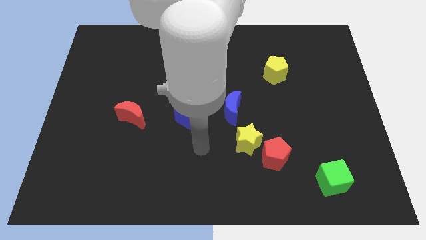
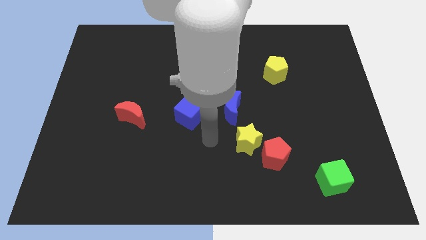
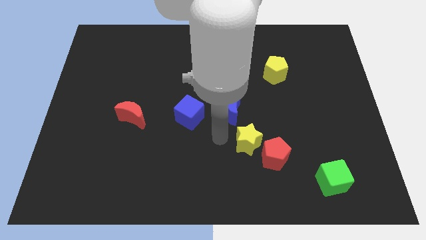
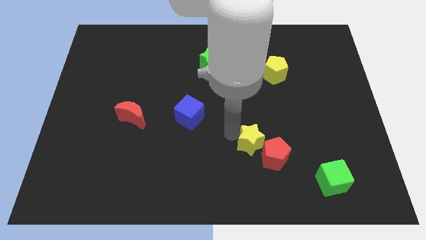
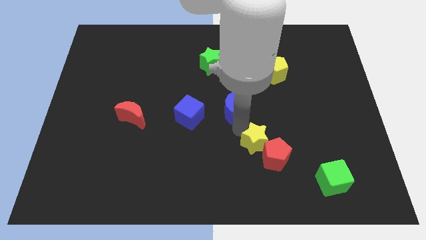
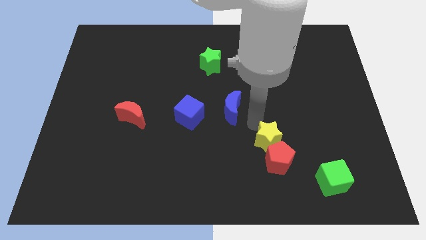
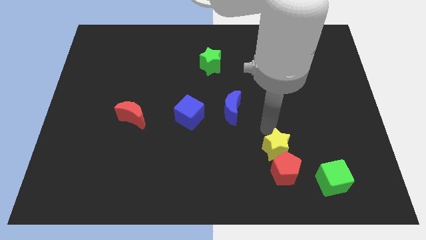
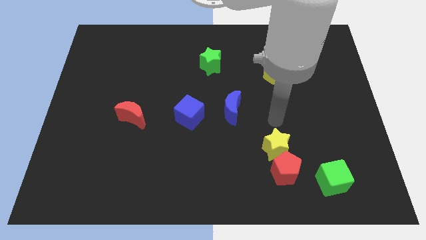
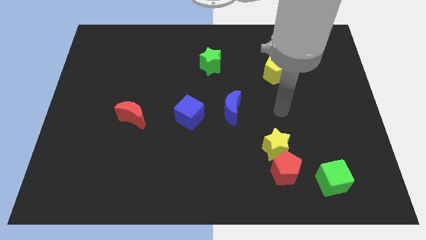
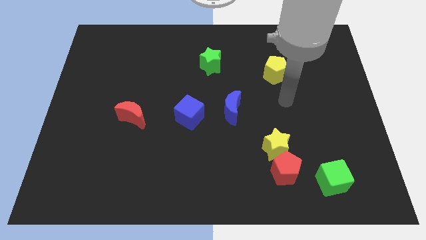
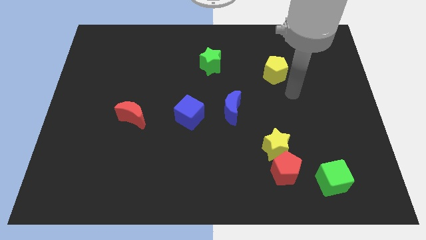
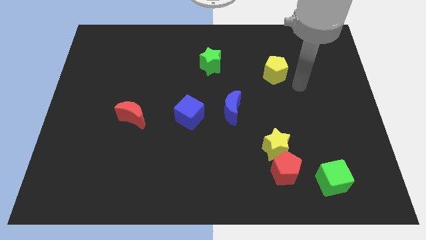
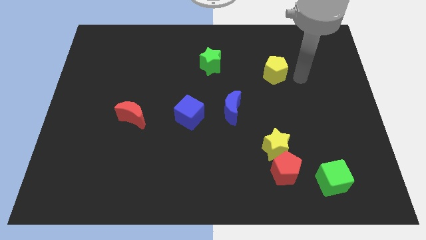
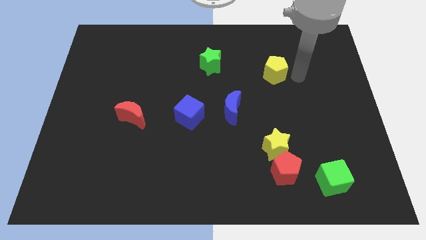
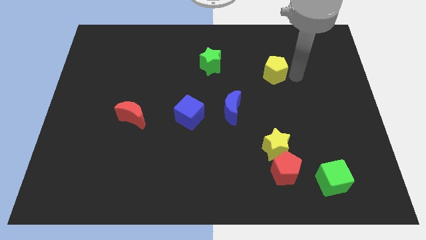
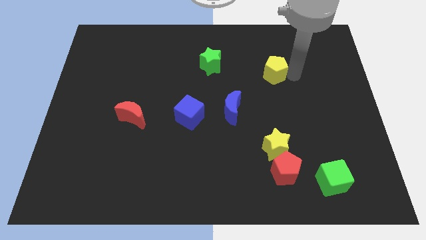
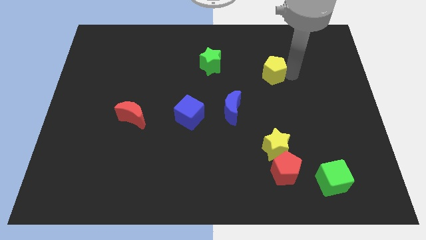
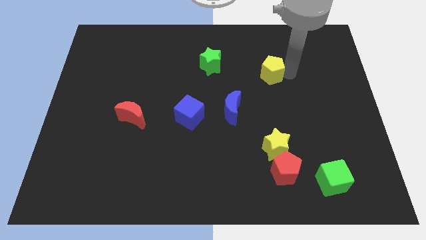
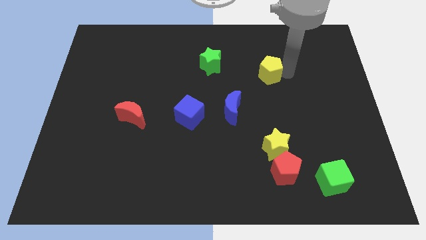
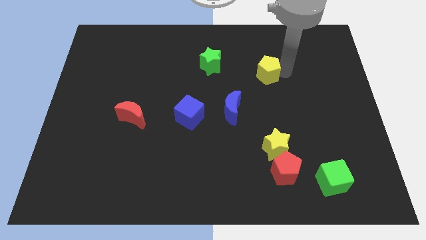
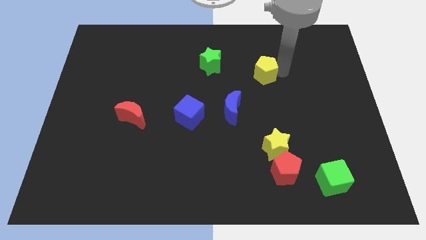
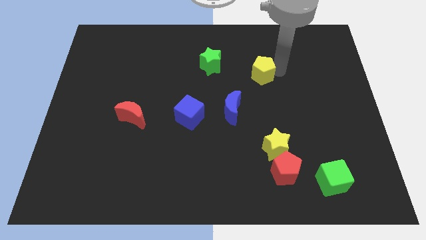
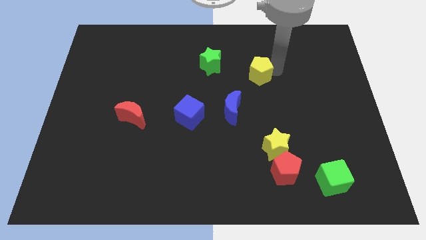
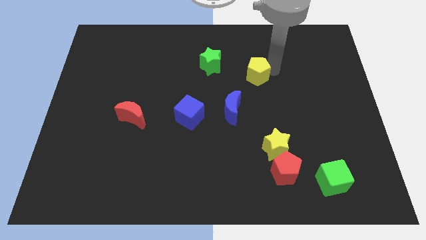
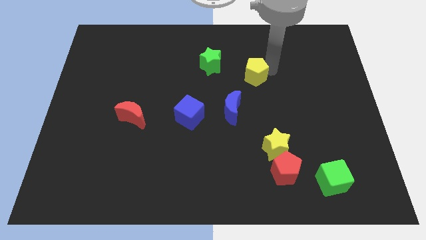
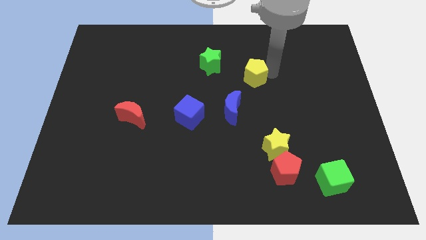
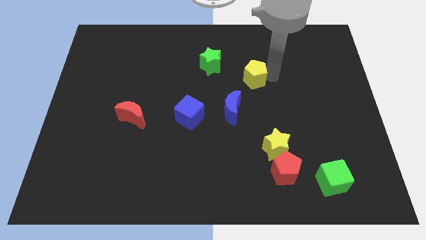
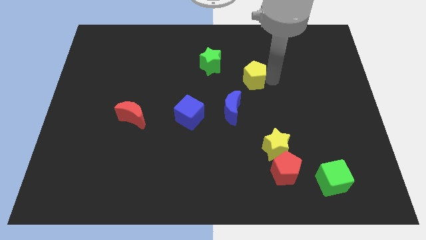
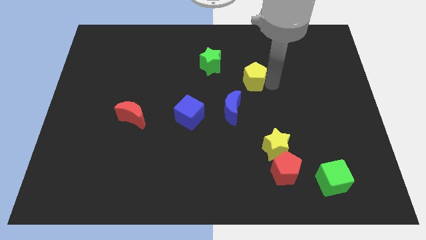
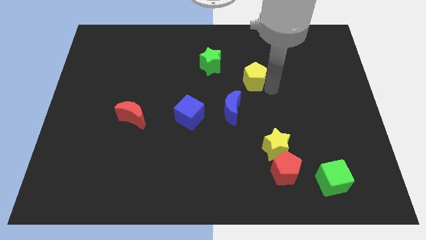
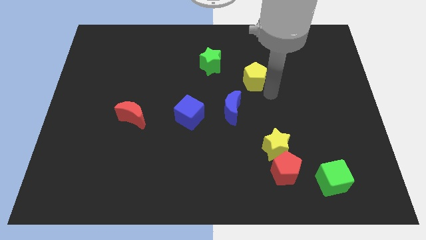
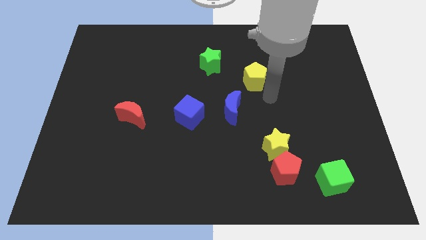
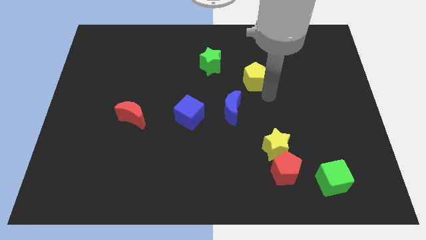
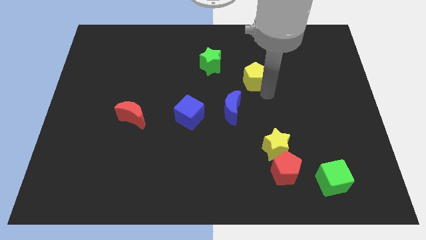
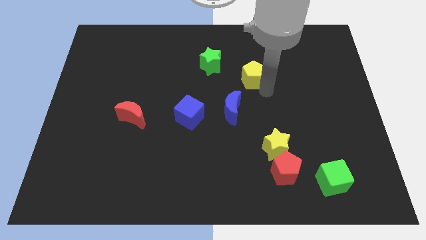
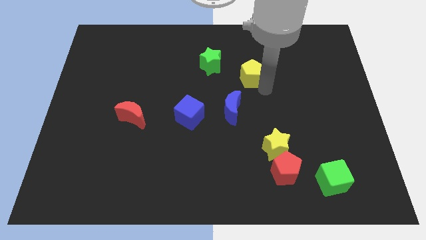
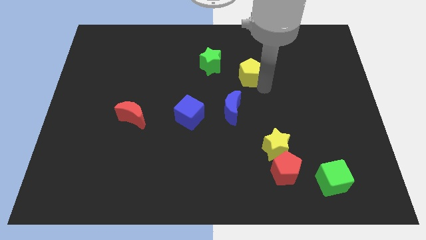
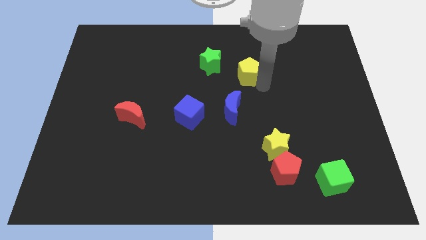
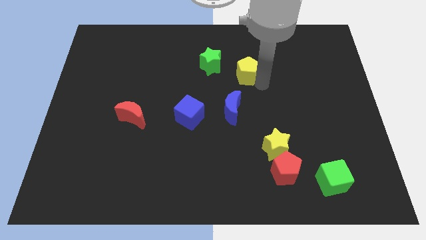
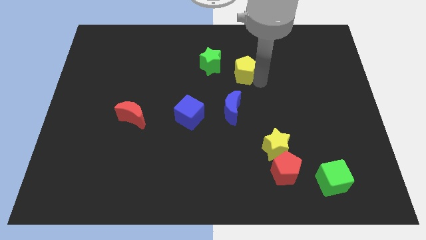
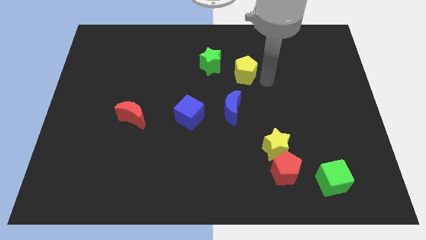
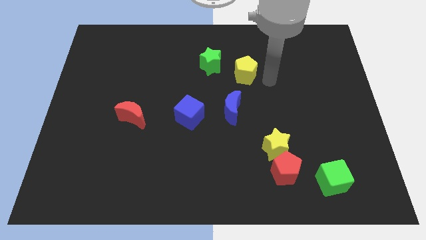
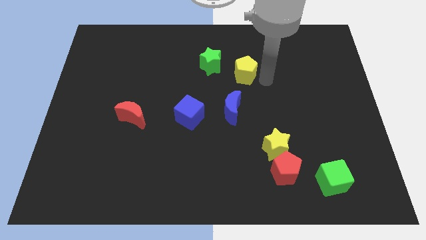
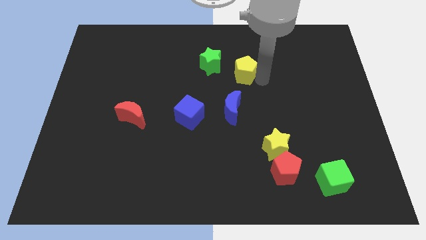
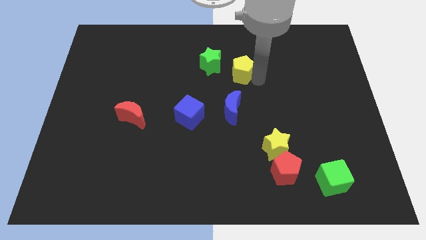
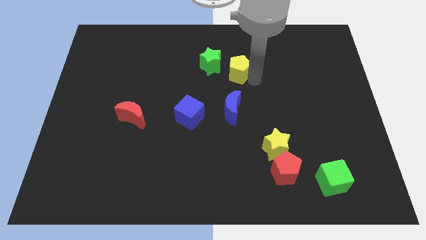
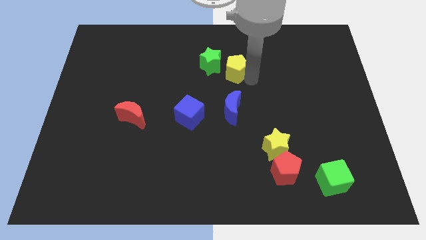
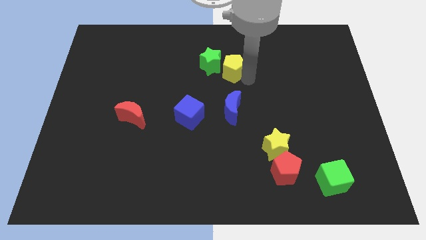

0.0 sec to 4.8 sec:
put the yellow pentagon next to the green star

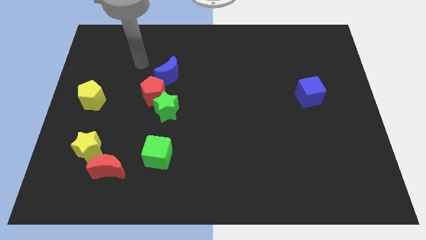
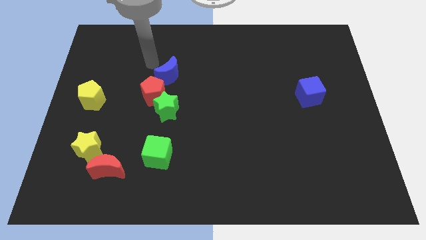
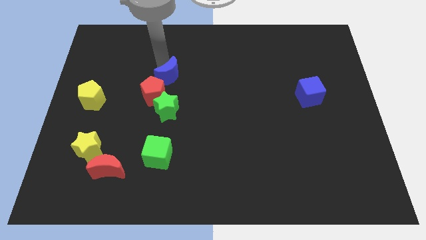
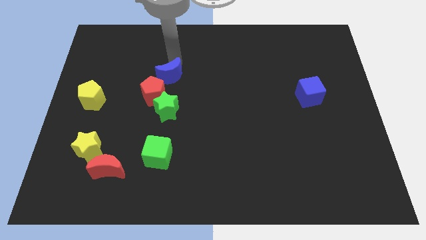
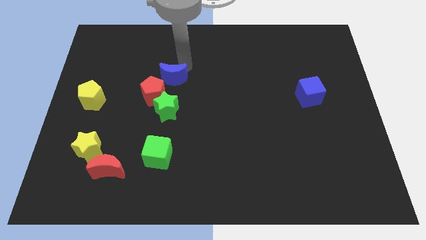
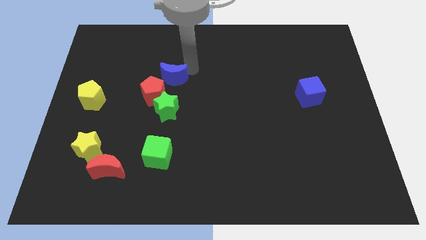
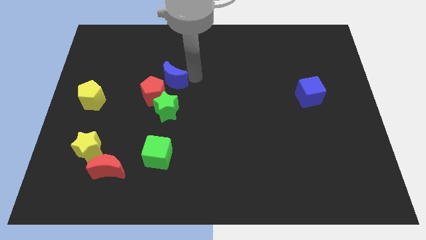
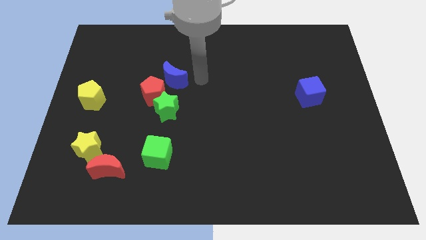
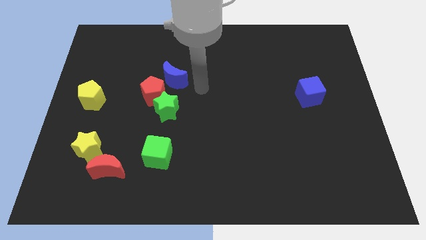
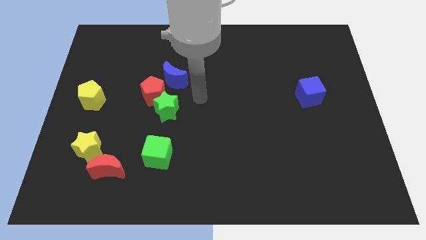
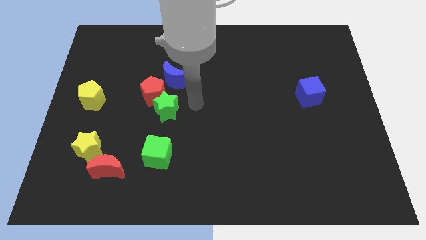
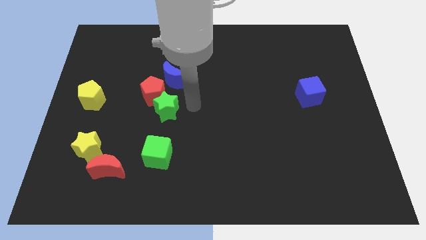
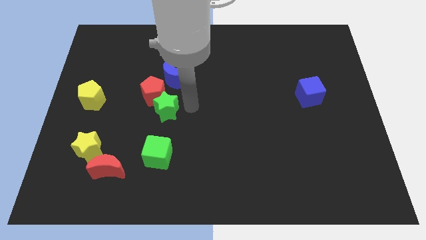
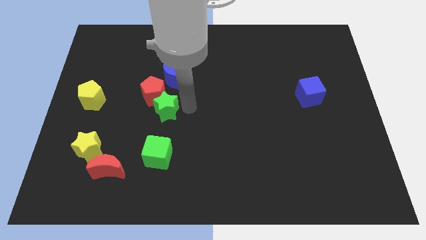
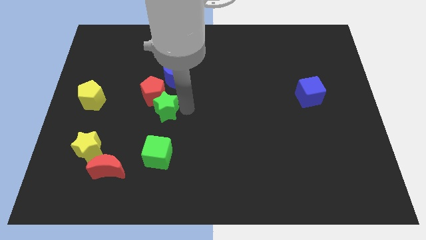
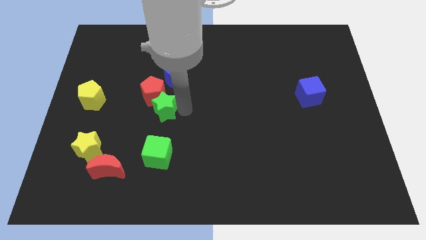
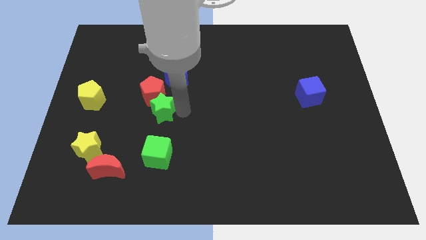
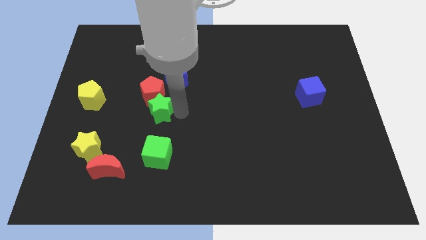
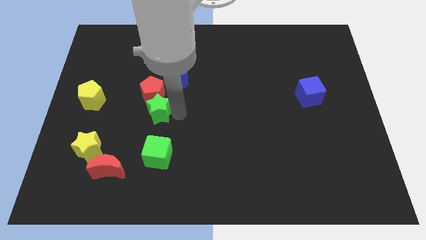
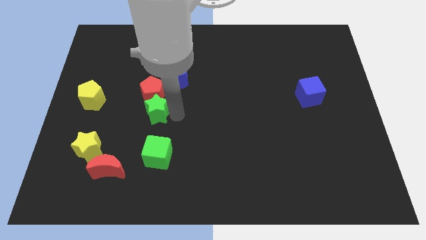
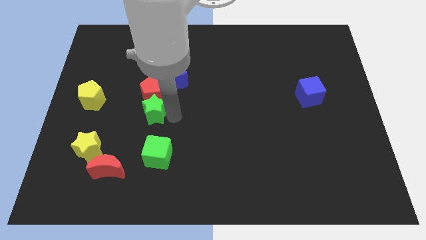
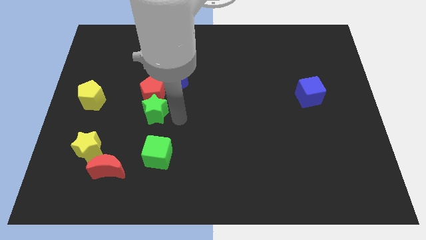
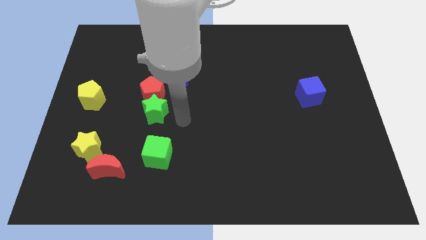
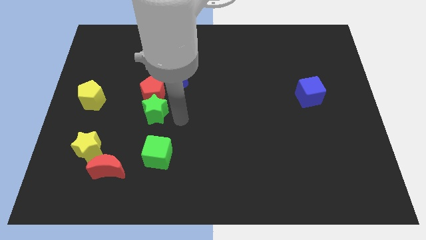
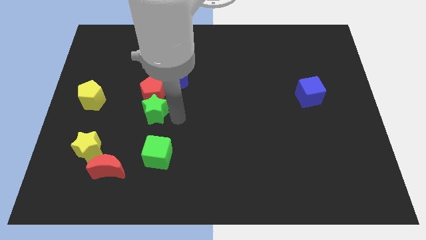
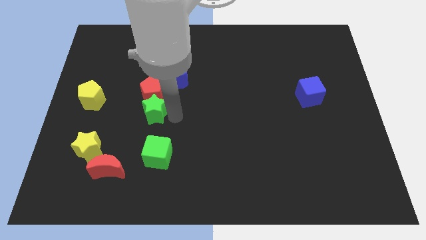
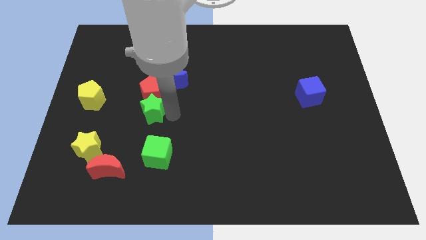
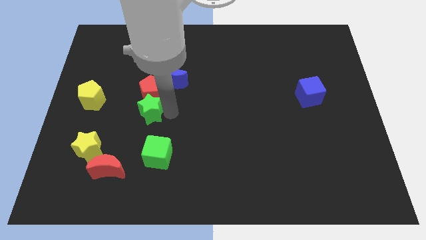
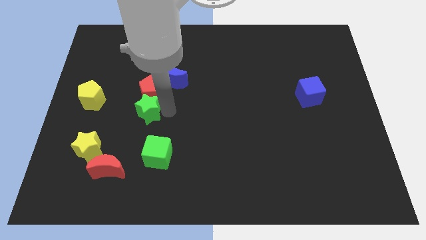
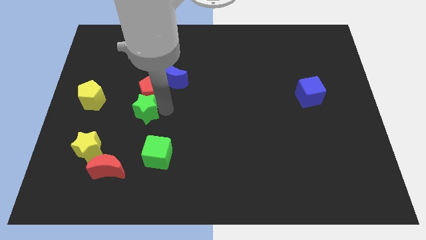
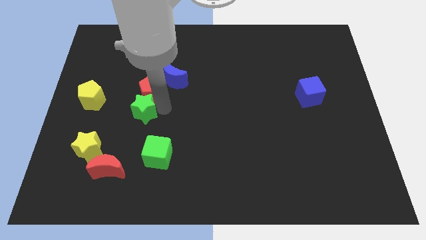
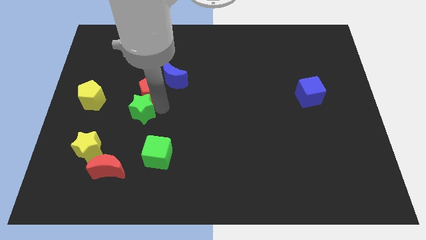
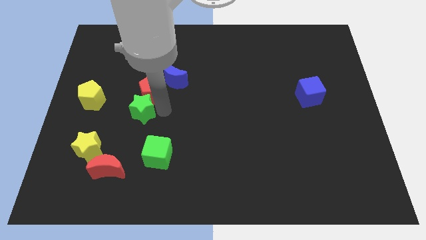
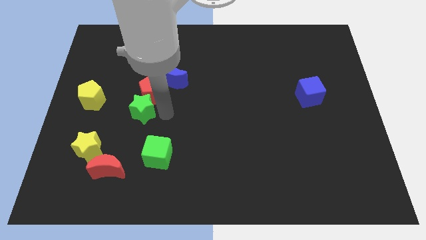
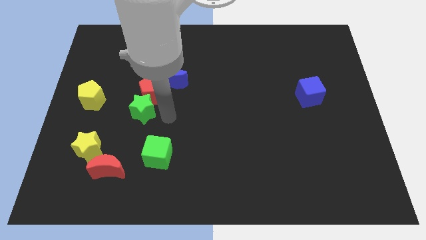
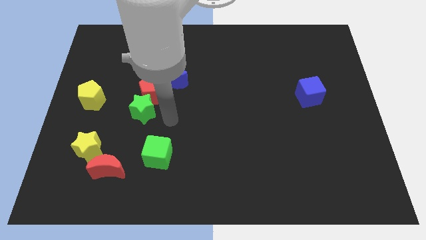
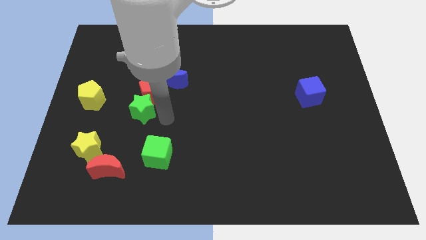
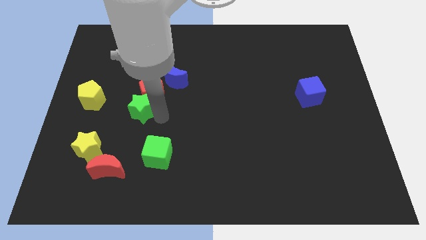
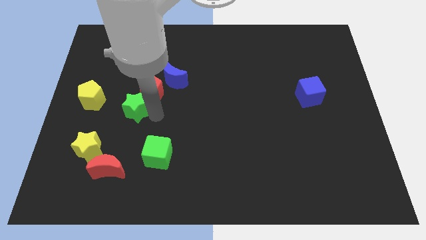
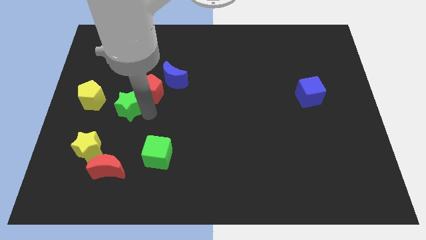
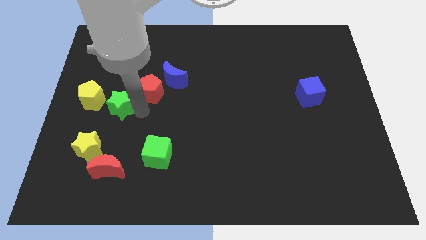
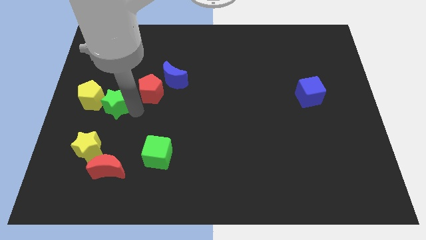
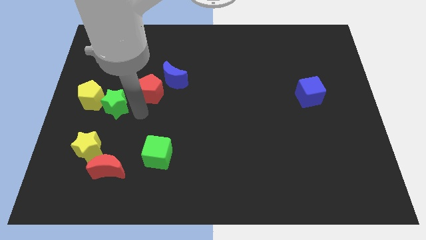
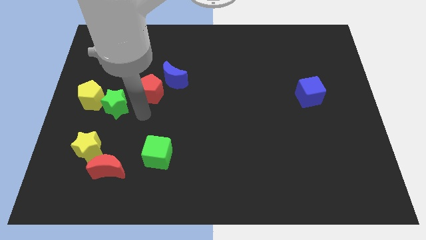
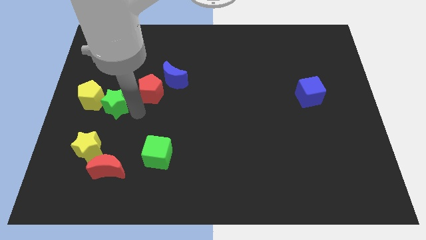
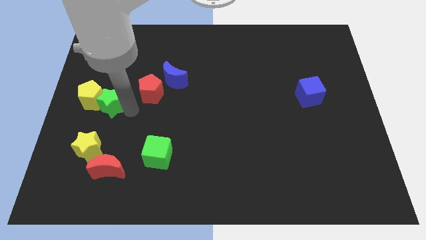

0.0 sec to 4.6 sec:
slide the green star to the yellow pentagon
